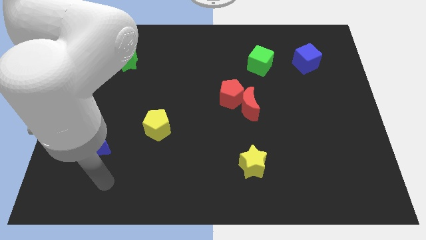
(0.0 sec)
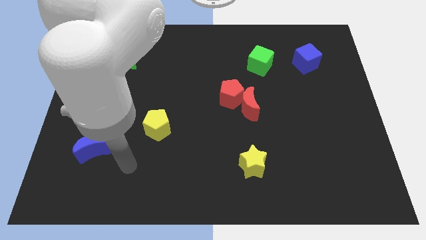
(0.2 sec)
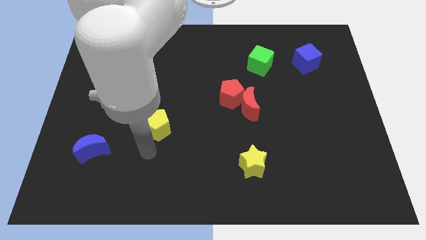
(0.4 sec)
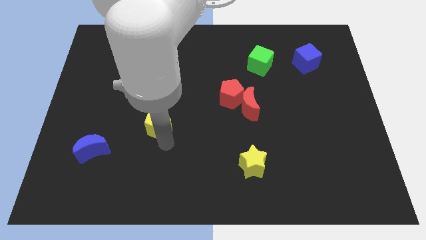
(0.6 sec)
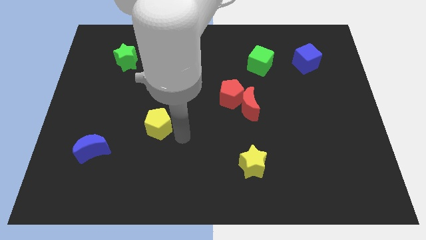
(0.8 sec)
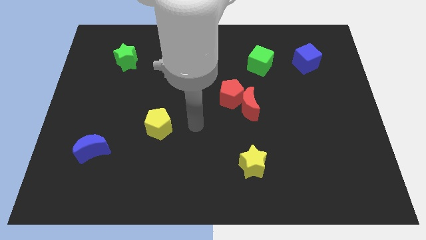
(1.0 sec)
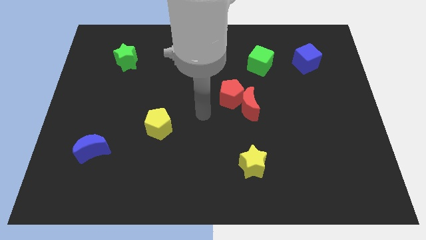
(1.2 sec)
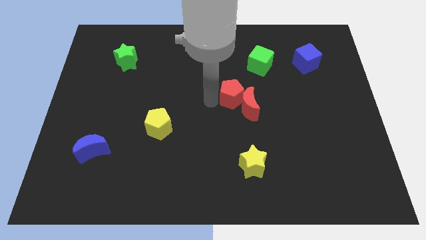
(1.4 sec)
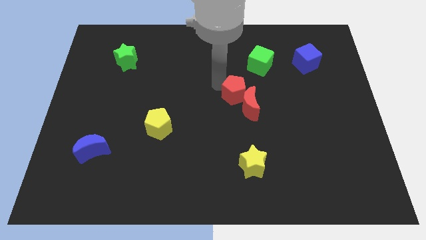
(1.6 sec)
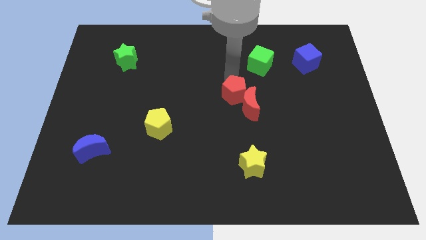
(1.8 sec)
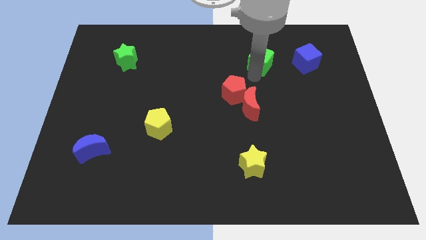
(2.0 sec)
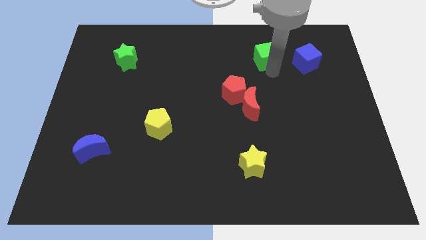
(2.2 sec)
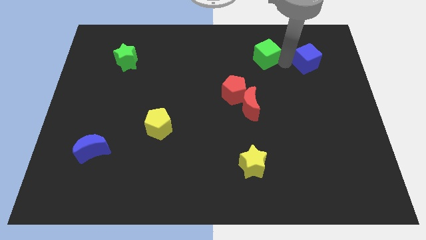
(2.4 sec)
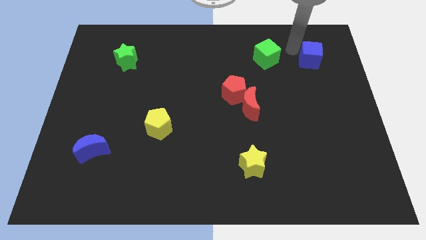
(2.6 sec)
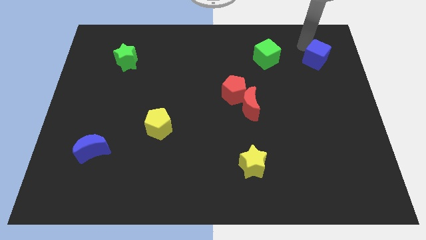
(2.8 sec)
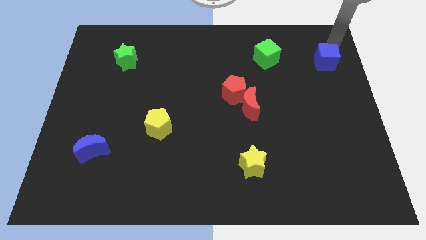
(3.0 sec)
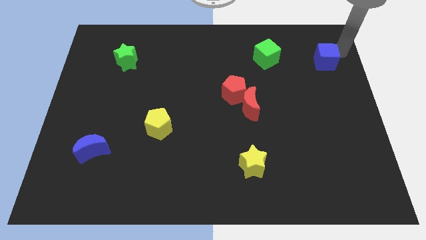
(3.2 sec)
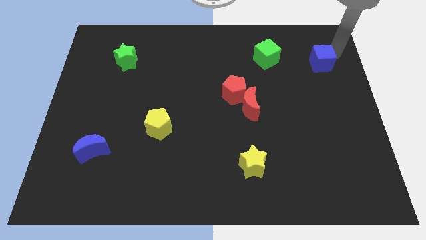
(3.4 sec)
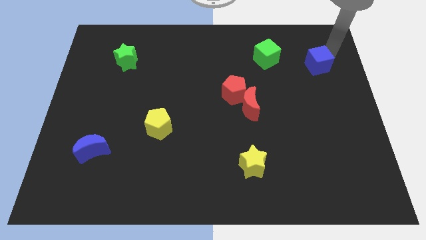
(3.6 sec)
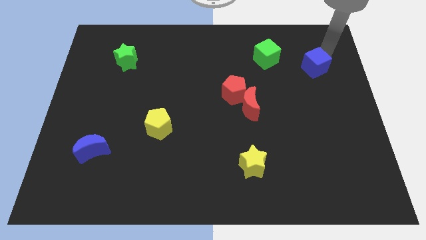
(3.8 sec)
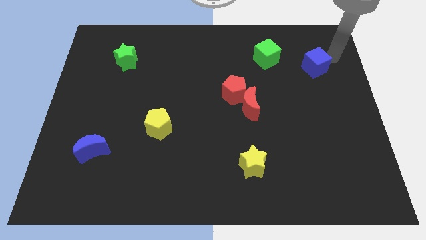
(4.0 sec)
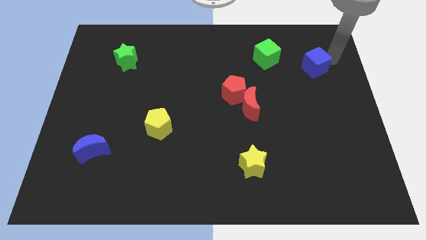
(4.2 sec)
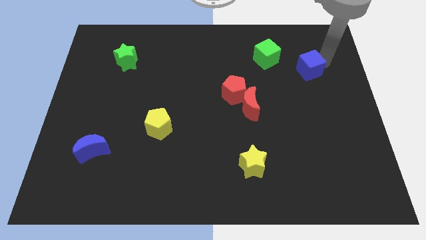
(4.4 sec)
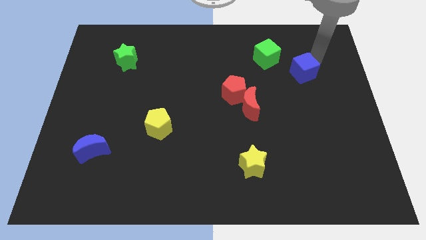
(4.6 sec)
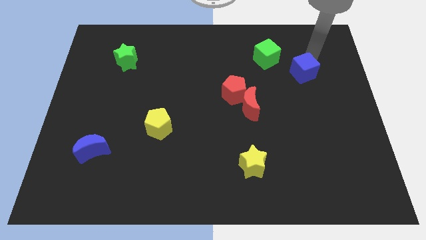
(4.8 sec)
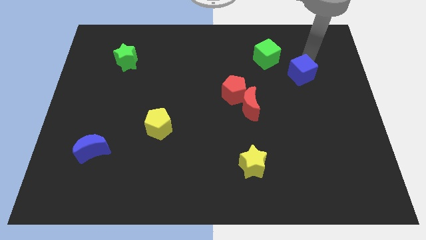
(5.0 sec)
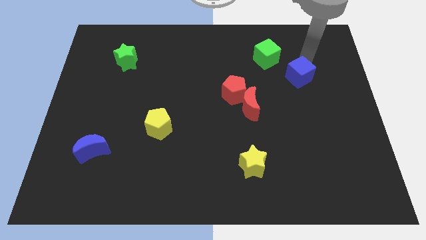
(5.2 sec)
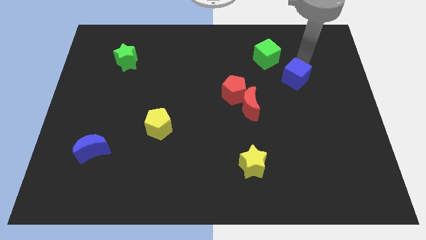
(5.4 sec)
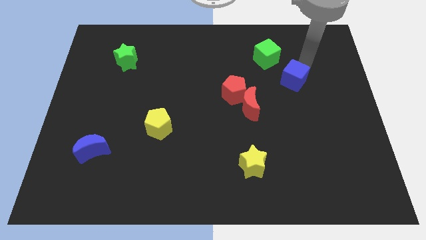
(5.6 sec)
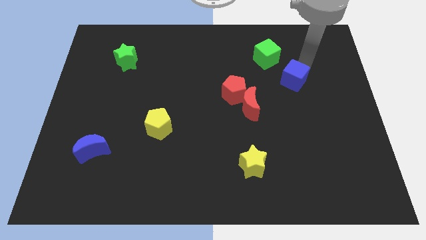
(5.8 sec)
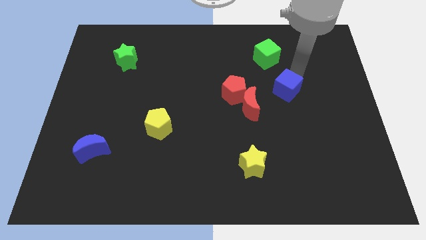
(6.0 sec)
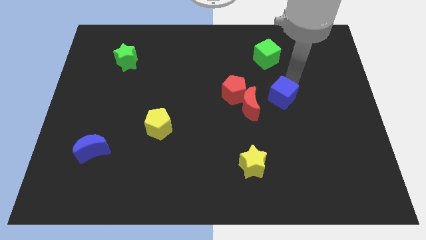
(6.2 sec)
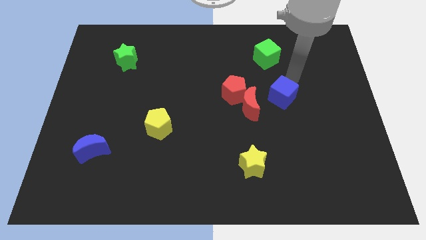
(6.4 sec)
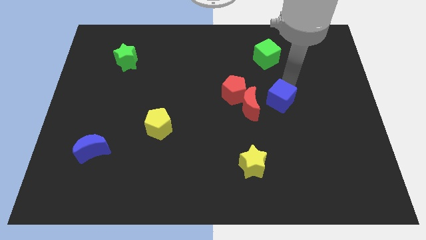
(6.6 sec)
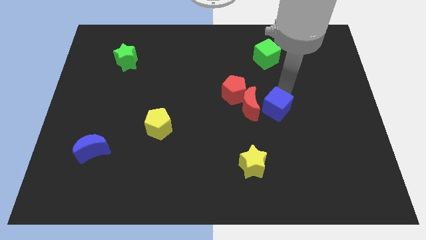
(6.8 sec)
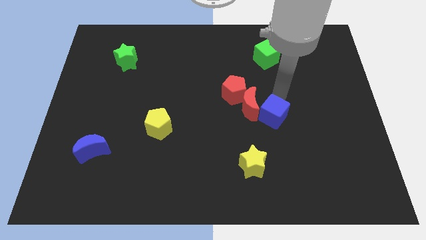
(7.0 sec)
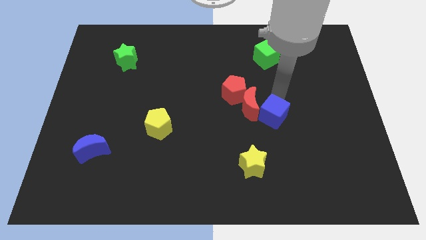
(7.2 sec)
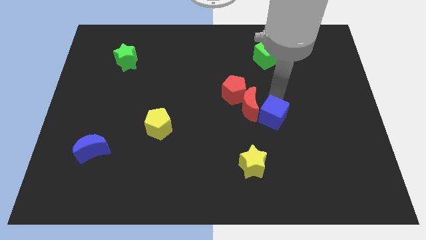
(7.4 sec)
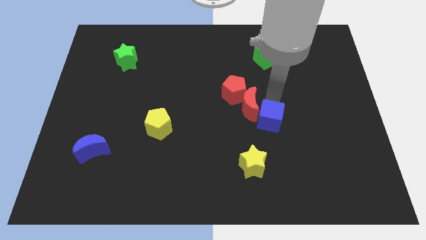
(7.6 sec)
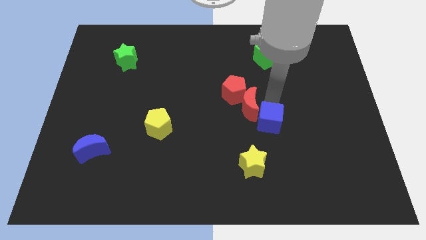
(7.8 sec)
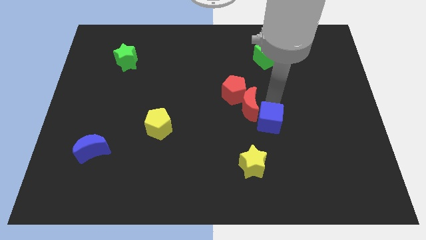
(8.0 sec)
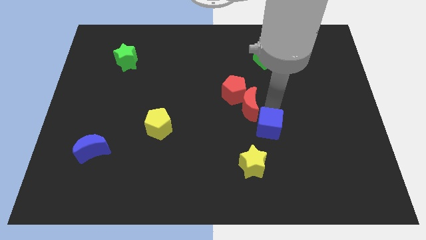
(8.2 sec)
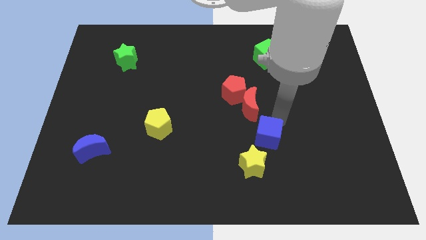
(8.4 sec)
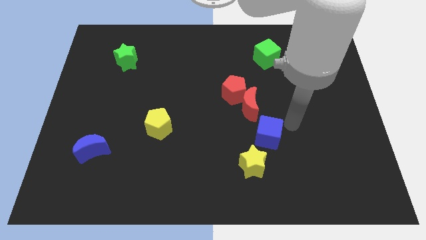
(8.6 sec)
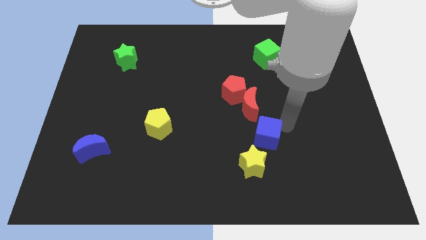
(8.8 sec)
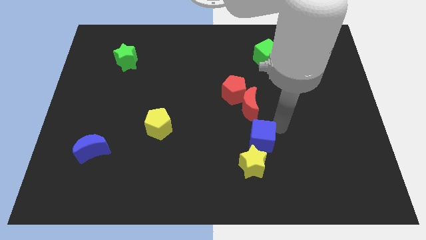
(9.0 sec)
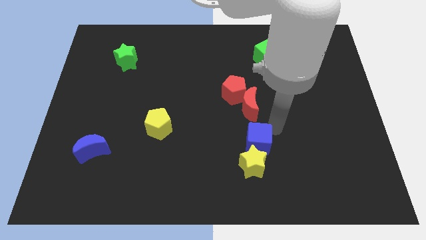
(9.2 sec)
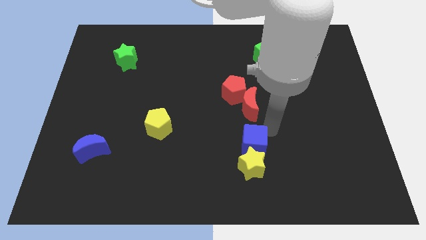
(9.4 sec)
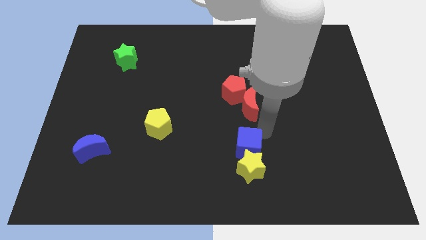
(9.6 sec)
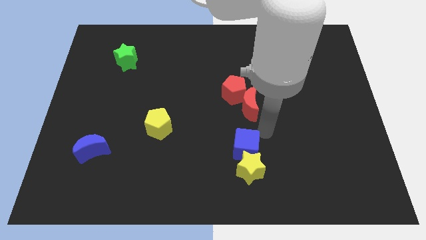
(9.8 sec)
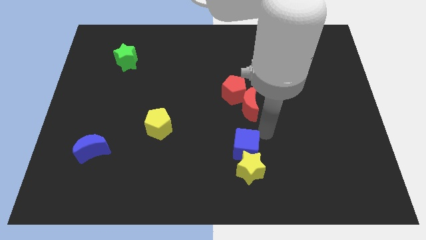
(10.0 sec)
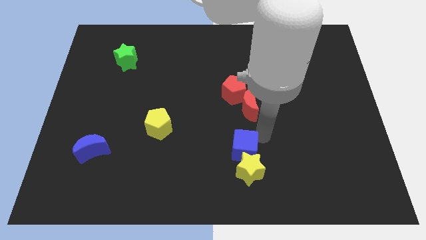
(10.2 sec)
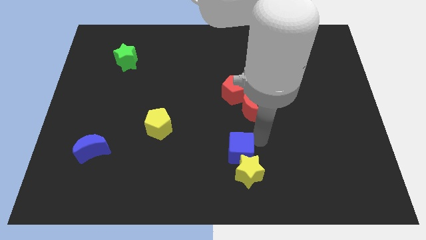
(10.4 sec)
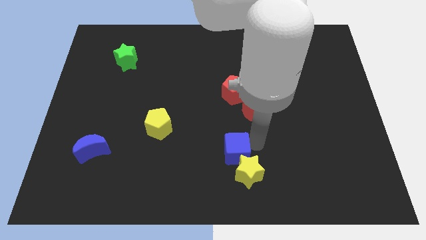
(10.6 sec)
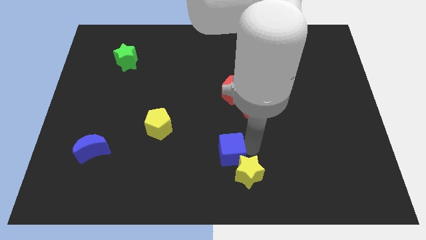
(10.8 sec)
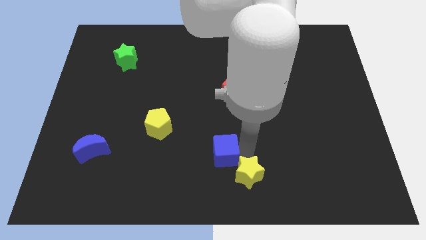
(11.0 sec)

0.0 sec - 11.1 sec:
put the blue cube to the bottom side
